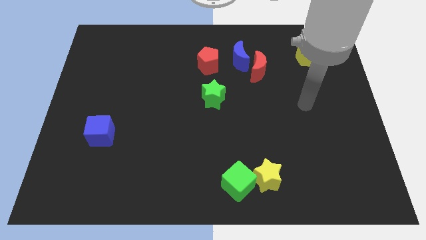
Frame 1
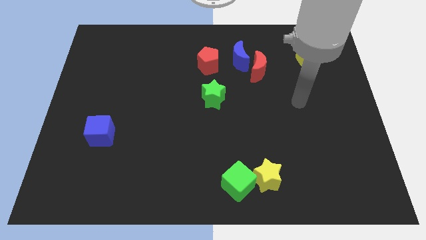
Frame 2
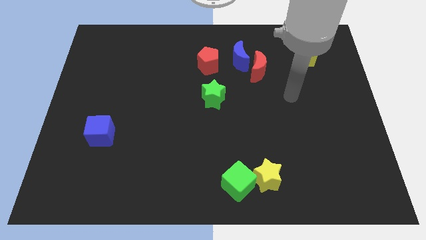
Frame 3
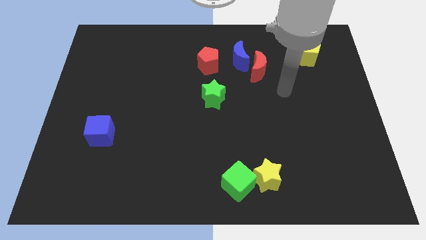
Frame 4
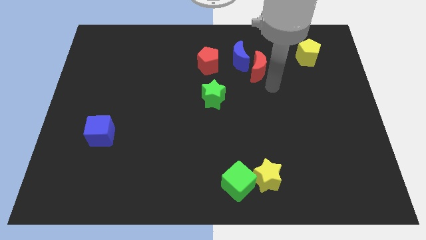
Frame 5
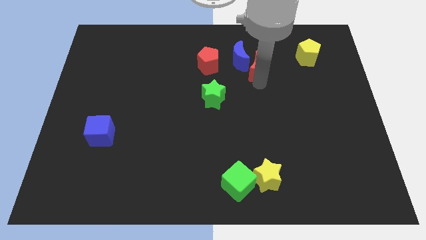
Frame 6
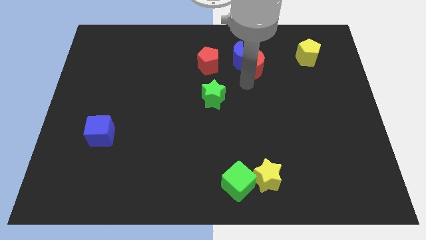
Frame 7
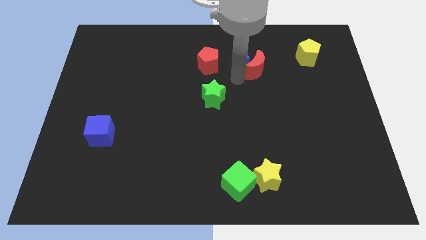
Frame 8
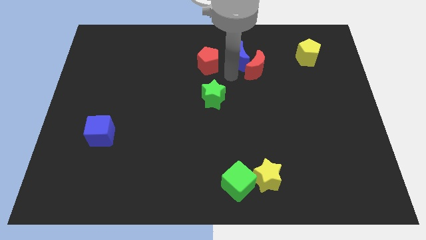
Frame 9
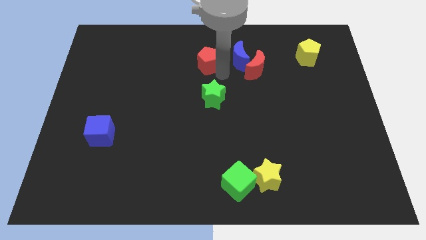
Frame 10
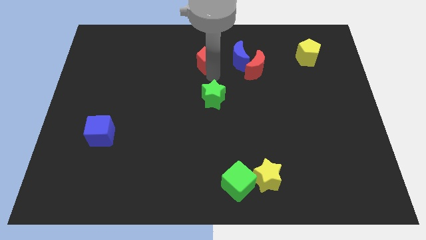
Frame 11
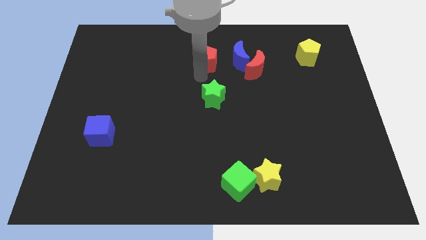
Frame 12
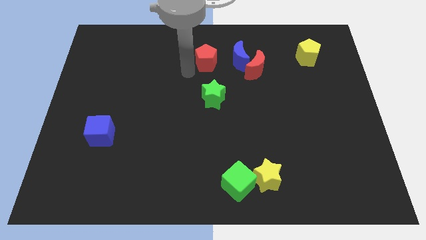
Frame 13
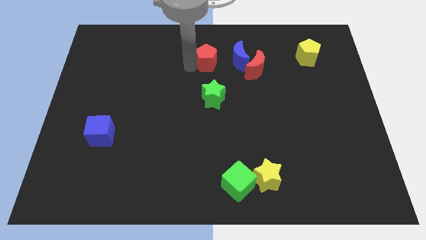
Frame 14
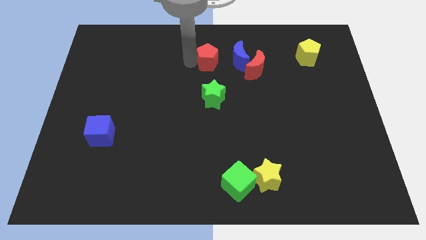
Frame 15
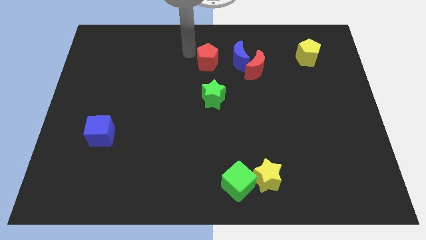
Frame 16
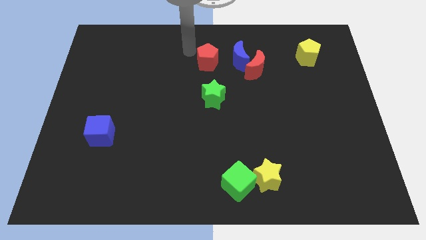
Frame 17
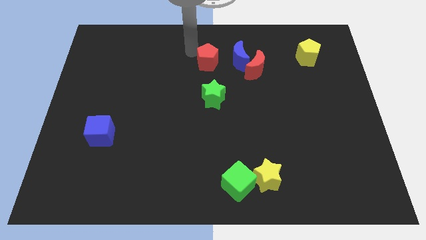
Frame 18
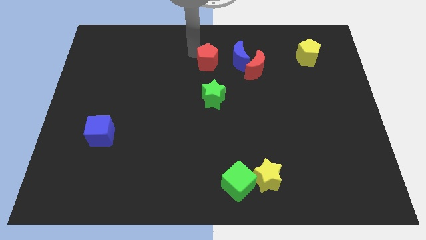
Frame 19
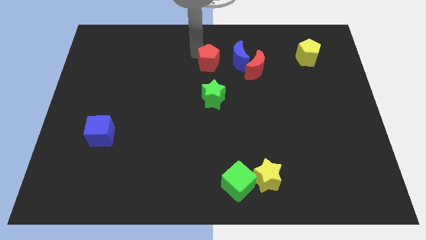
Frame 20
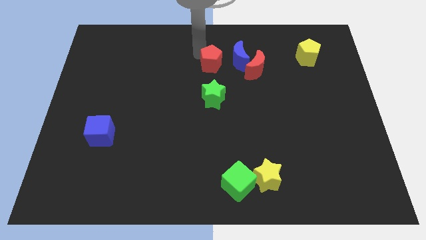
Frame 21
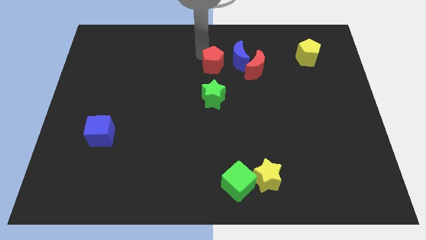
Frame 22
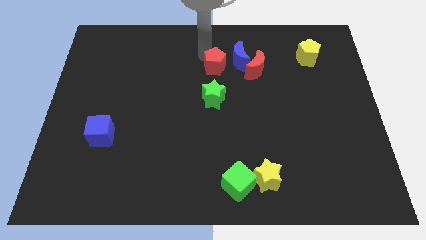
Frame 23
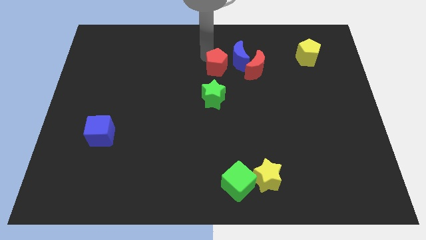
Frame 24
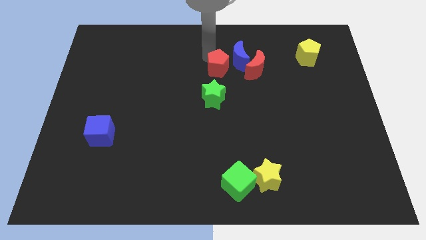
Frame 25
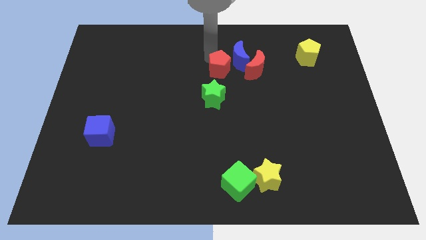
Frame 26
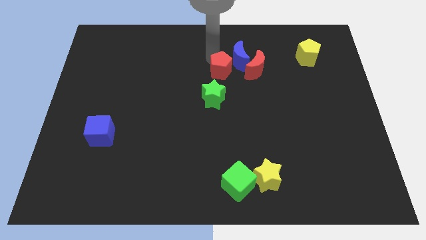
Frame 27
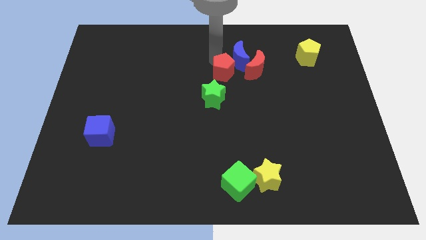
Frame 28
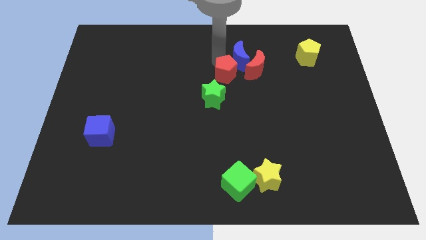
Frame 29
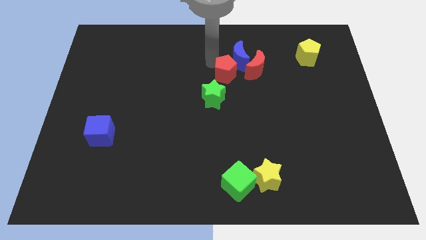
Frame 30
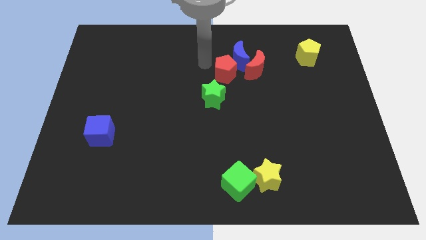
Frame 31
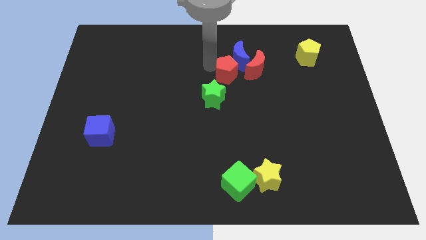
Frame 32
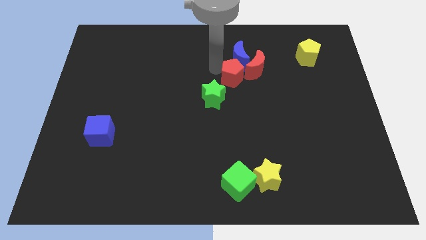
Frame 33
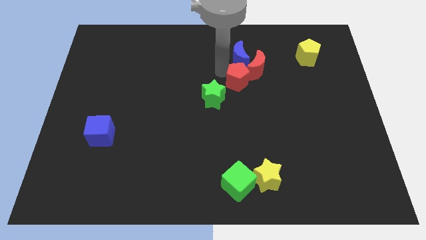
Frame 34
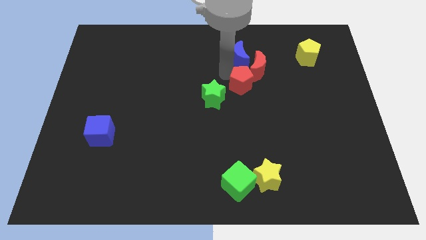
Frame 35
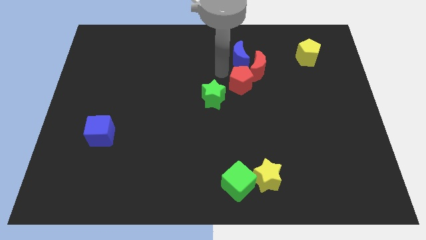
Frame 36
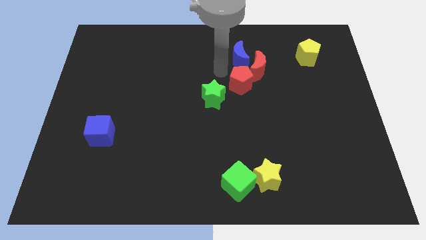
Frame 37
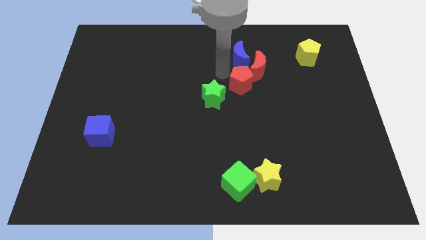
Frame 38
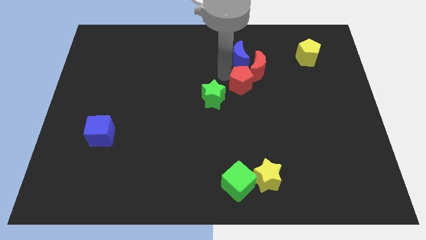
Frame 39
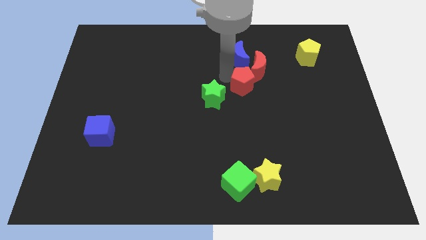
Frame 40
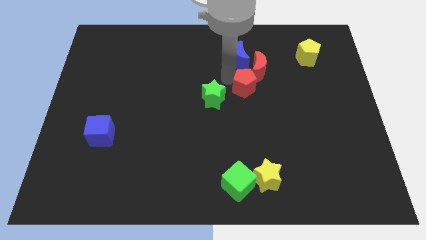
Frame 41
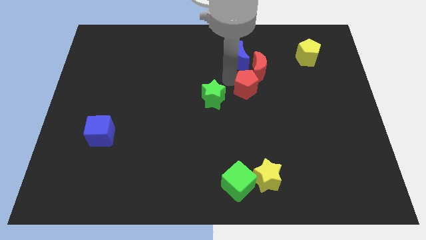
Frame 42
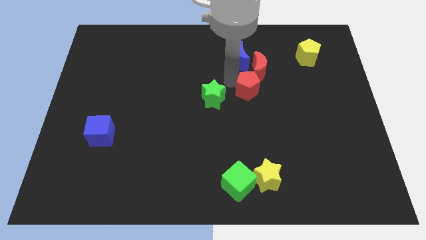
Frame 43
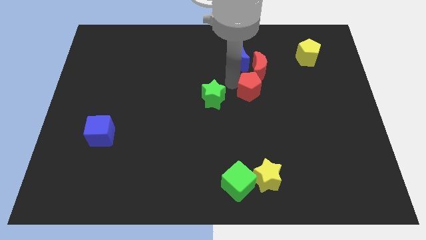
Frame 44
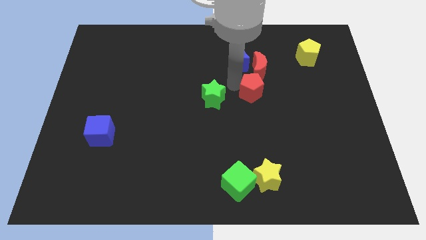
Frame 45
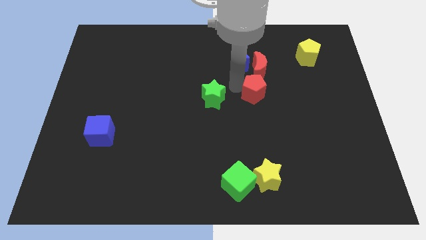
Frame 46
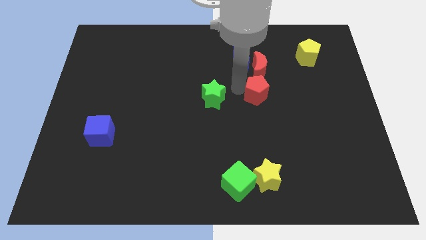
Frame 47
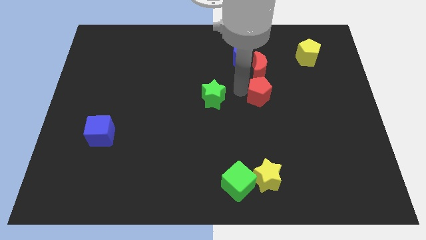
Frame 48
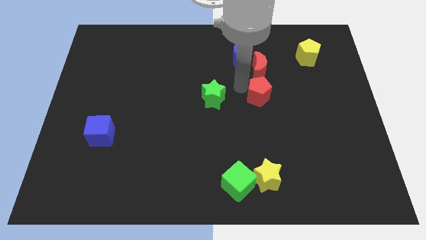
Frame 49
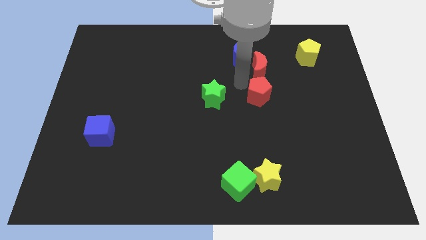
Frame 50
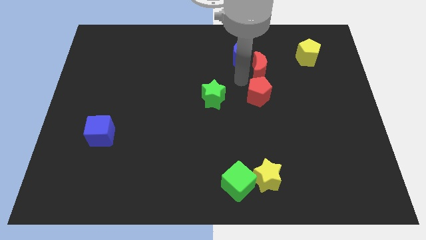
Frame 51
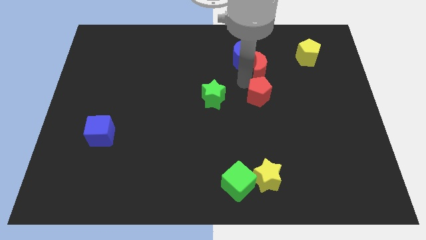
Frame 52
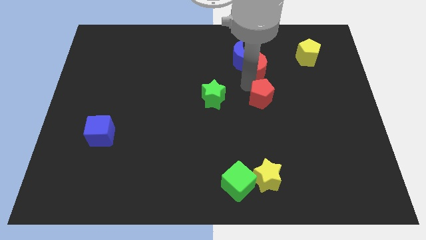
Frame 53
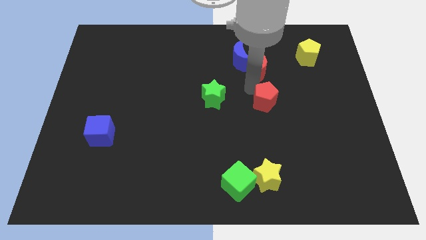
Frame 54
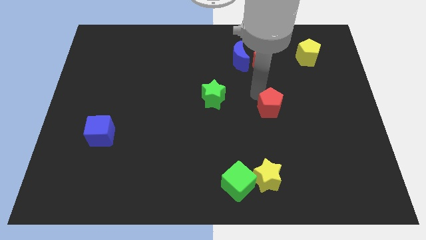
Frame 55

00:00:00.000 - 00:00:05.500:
slide the red pentagon downwards and to the right diagonally

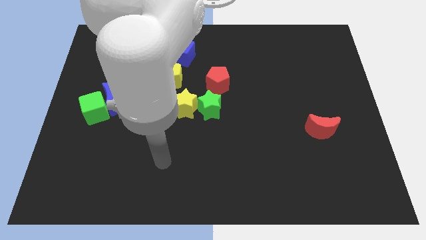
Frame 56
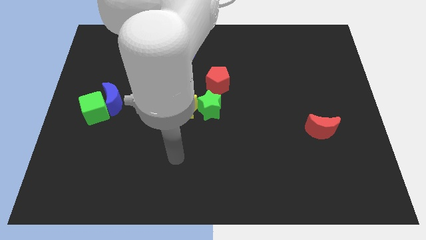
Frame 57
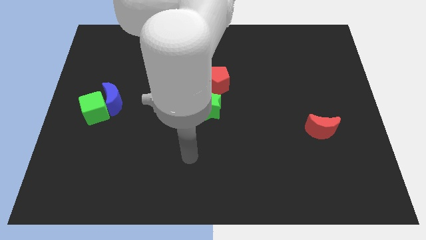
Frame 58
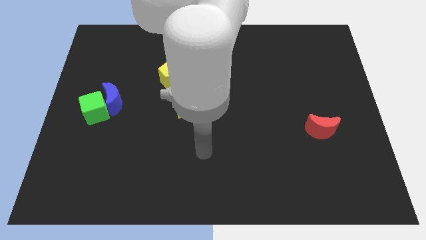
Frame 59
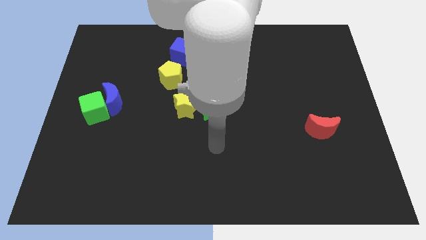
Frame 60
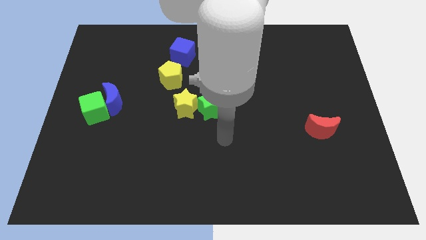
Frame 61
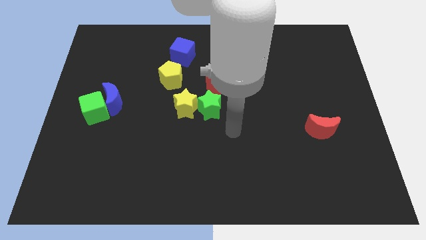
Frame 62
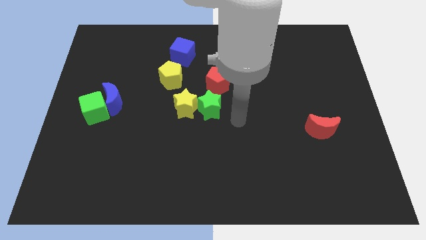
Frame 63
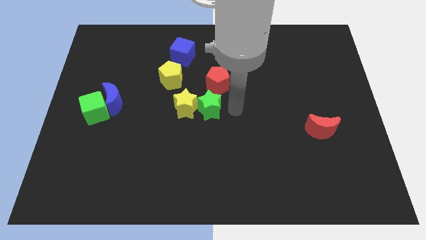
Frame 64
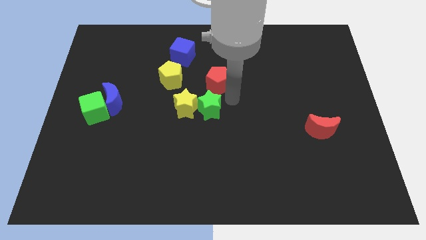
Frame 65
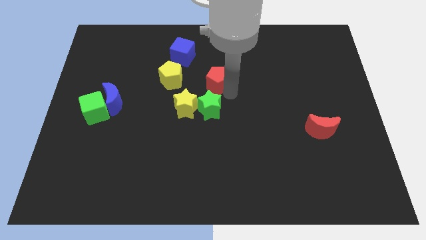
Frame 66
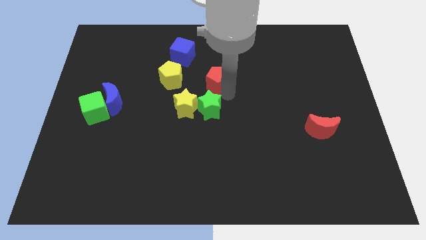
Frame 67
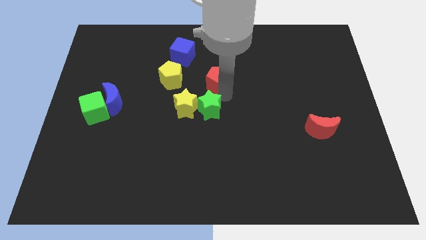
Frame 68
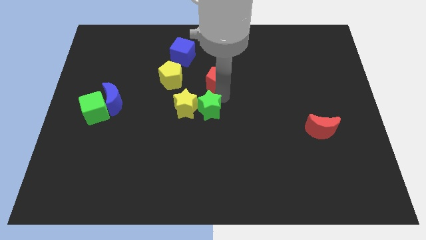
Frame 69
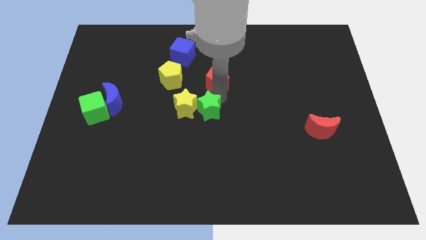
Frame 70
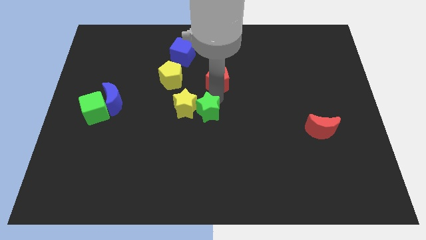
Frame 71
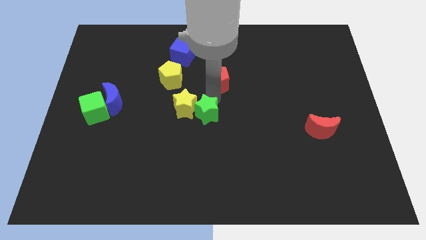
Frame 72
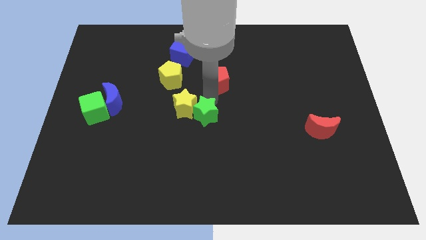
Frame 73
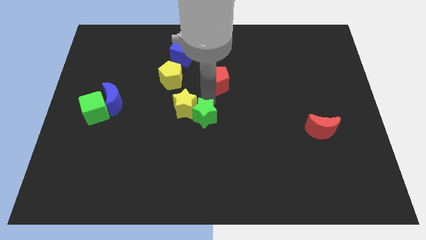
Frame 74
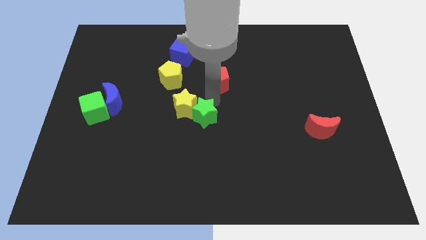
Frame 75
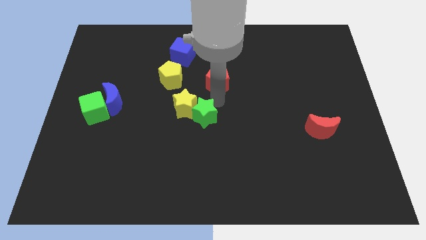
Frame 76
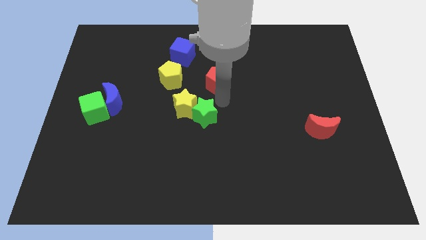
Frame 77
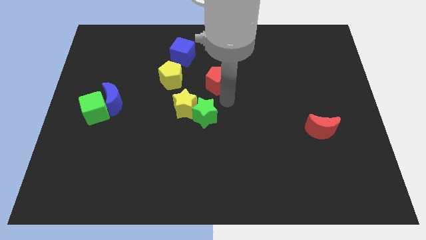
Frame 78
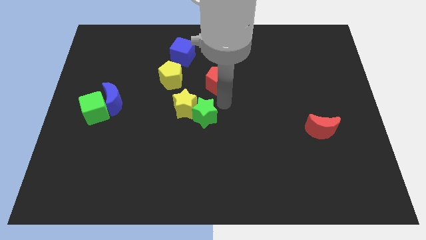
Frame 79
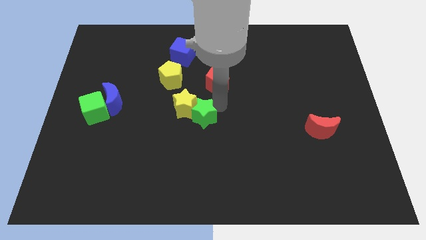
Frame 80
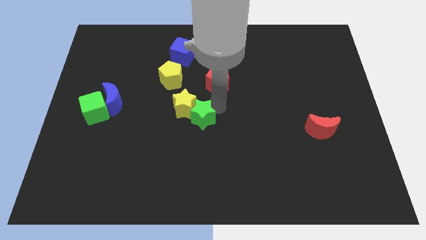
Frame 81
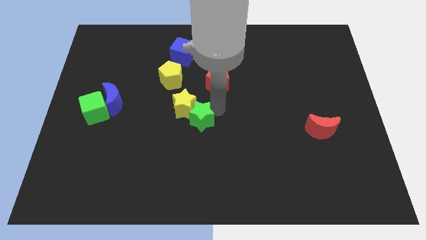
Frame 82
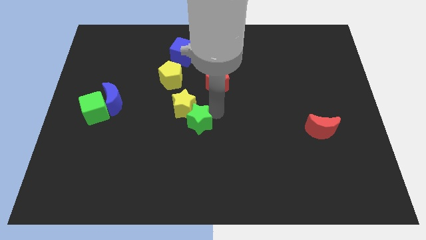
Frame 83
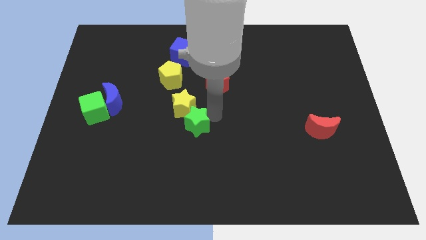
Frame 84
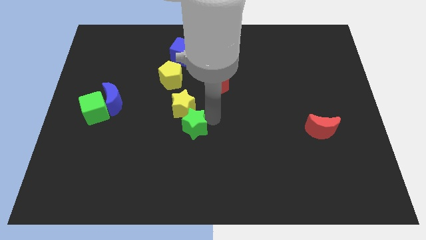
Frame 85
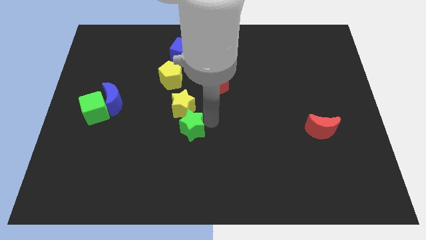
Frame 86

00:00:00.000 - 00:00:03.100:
push the green star diagonally down and to the left slightly
